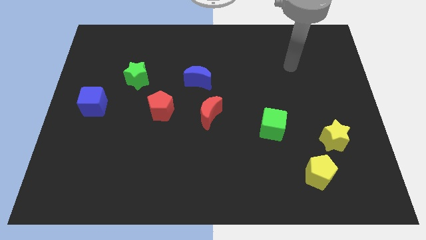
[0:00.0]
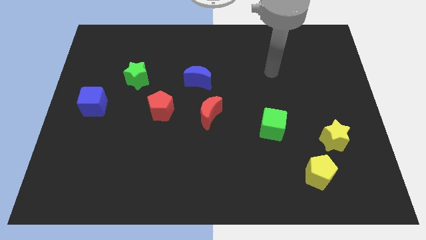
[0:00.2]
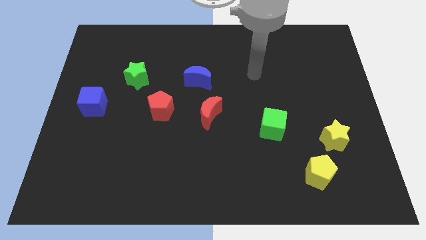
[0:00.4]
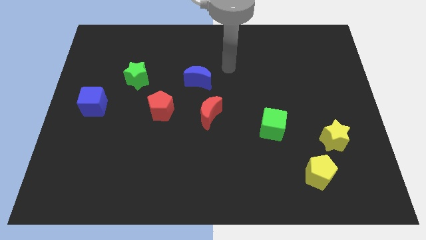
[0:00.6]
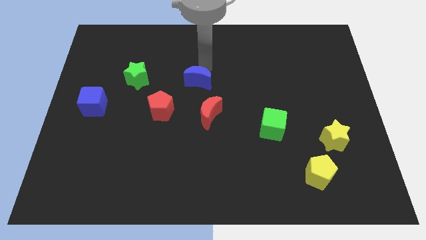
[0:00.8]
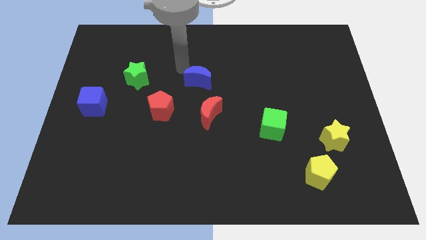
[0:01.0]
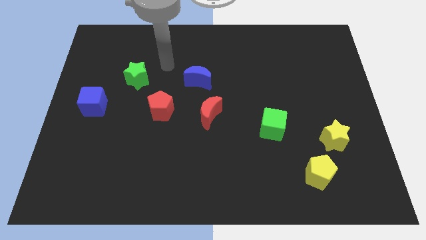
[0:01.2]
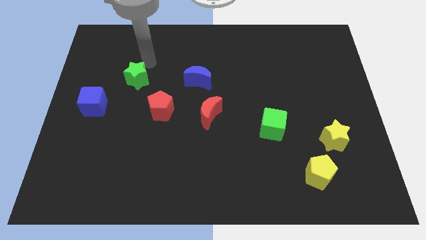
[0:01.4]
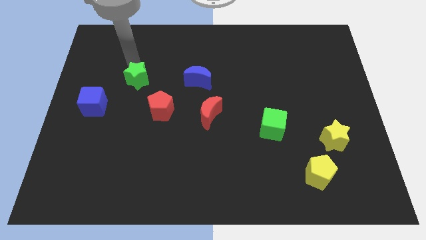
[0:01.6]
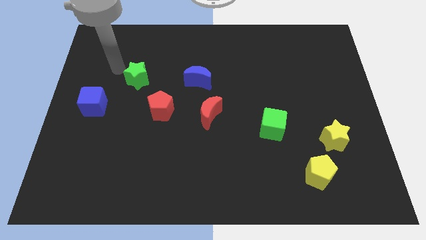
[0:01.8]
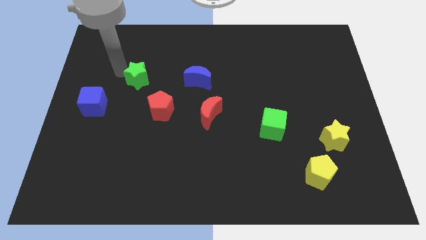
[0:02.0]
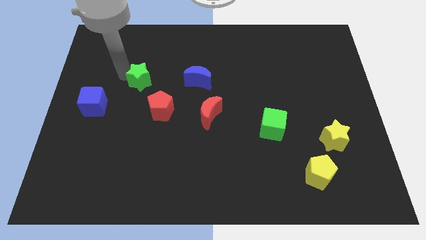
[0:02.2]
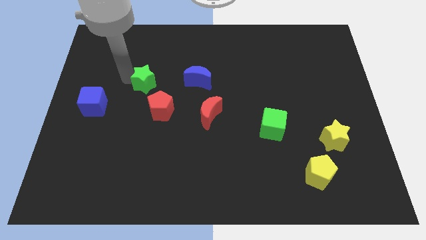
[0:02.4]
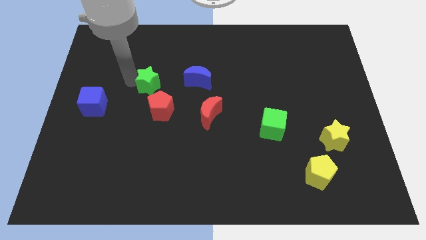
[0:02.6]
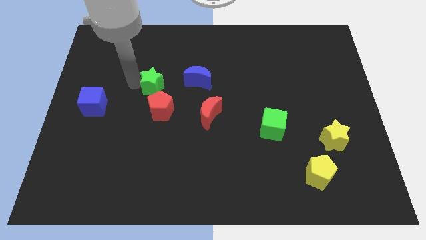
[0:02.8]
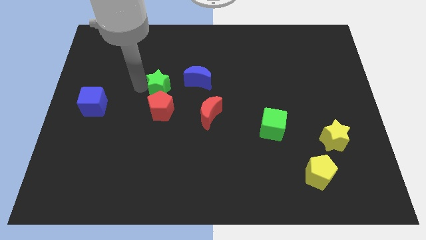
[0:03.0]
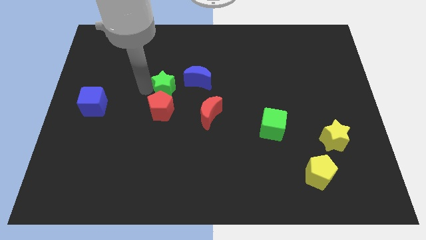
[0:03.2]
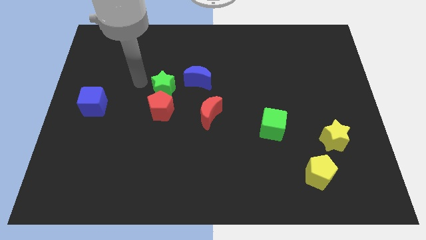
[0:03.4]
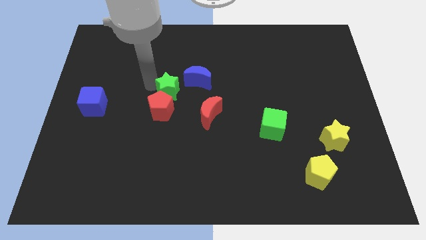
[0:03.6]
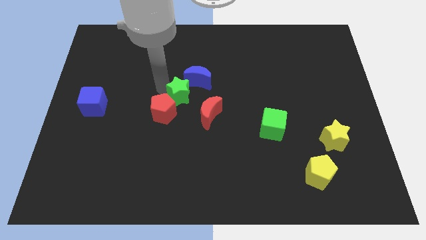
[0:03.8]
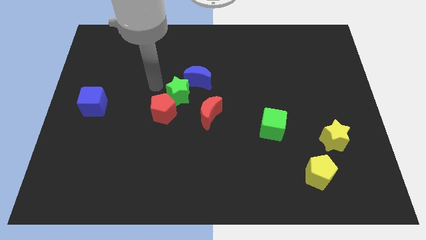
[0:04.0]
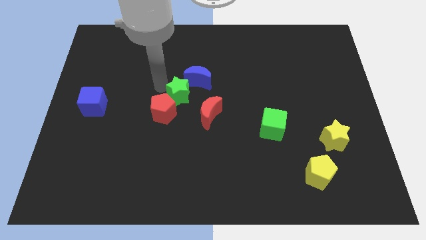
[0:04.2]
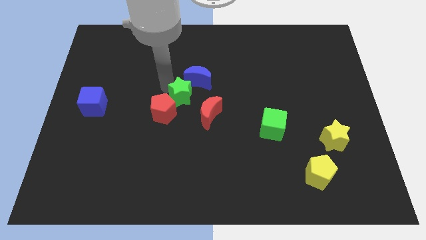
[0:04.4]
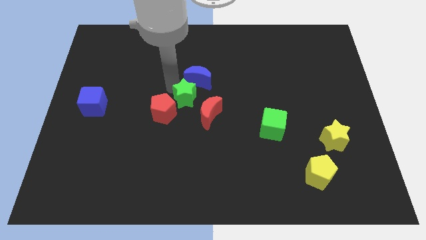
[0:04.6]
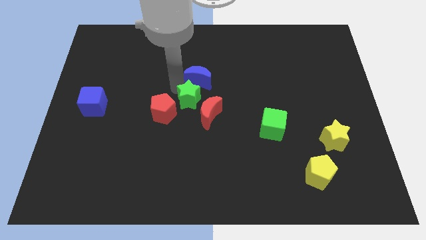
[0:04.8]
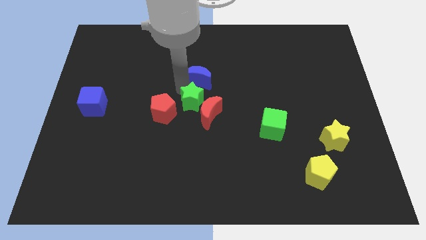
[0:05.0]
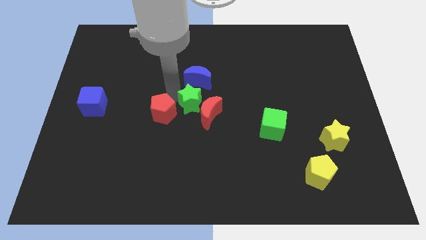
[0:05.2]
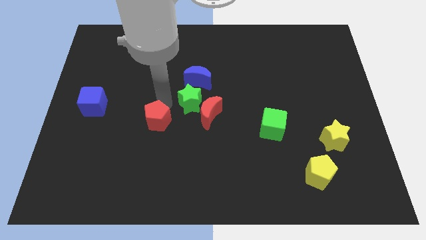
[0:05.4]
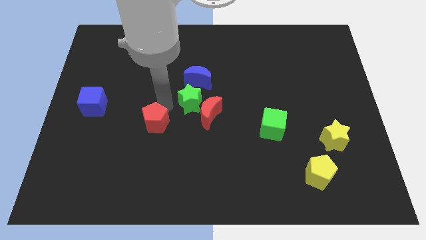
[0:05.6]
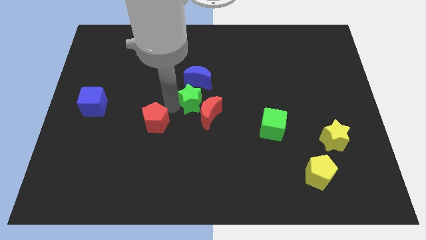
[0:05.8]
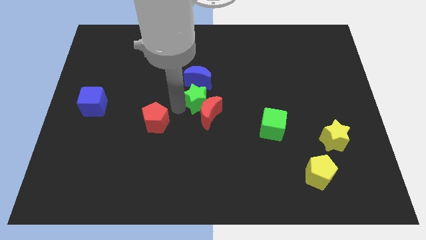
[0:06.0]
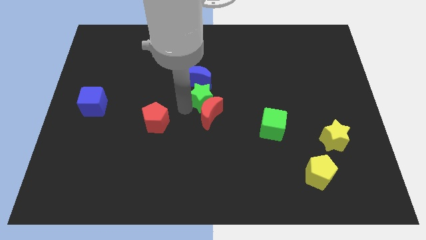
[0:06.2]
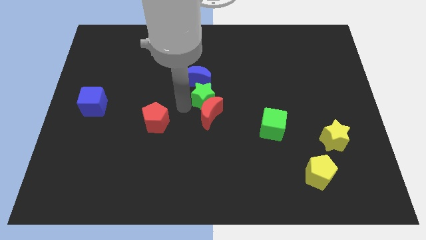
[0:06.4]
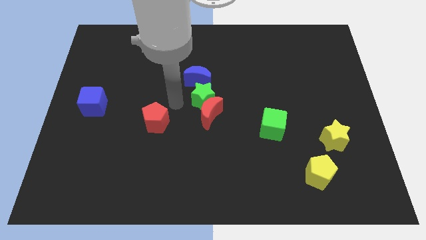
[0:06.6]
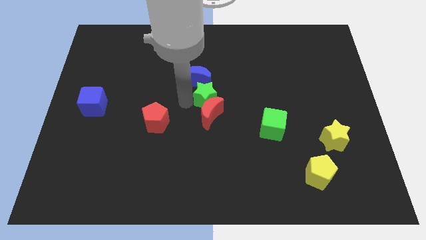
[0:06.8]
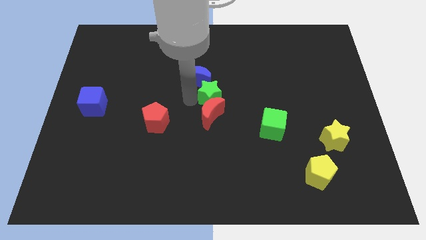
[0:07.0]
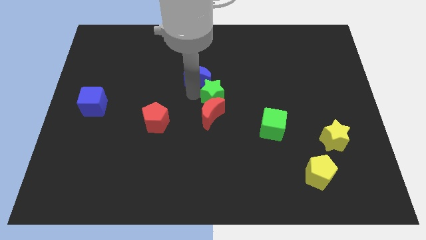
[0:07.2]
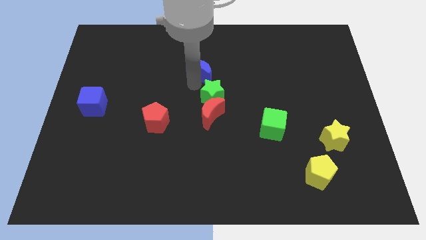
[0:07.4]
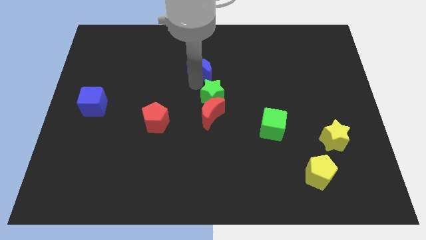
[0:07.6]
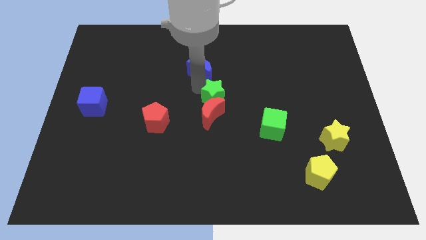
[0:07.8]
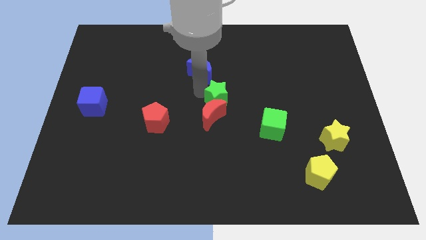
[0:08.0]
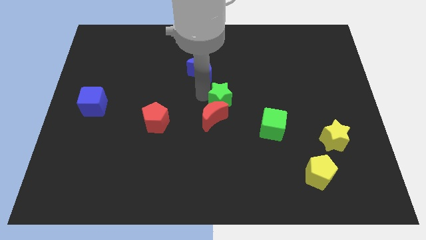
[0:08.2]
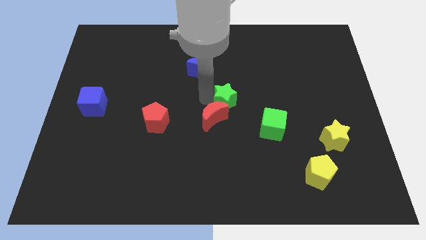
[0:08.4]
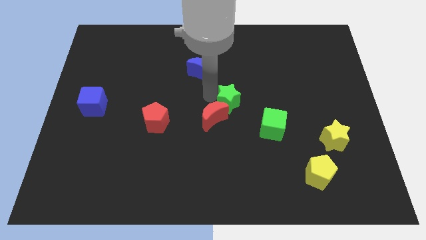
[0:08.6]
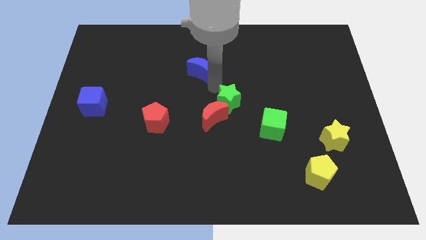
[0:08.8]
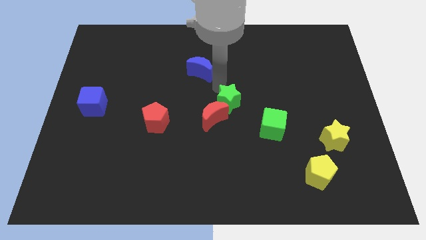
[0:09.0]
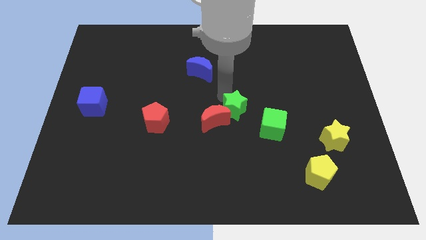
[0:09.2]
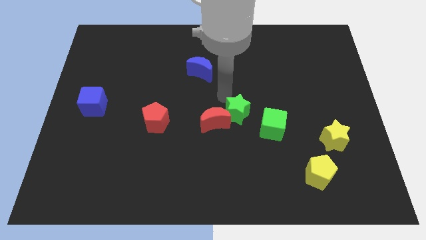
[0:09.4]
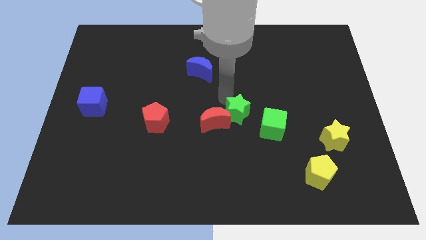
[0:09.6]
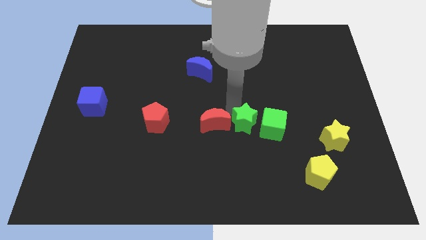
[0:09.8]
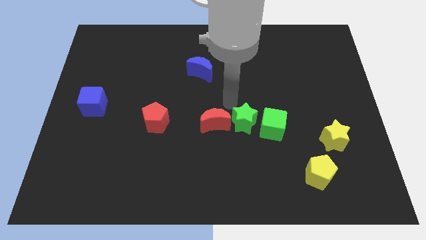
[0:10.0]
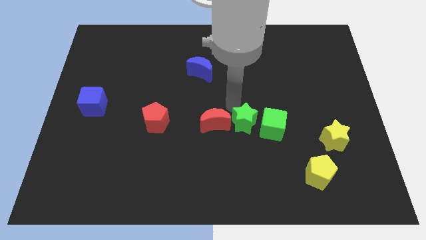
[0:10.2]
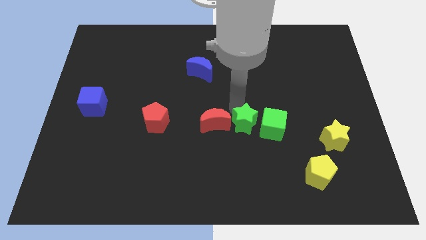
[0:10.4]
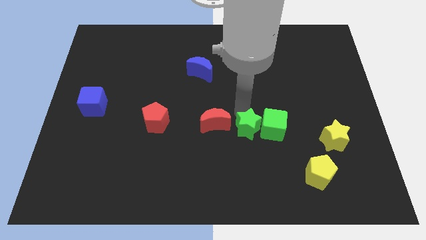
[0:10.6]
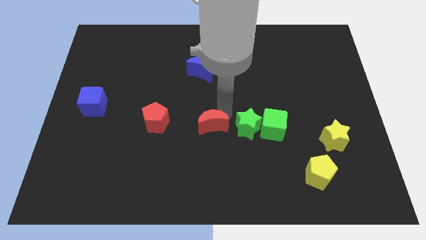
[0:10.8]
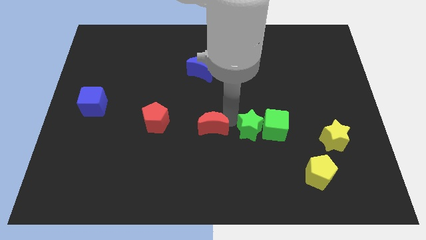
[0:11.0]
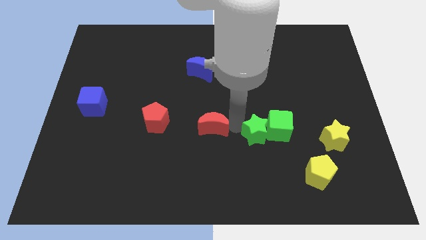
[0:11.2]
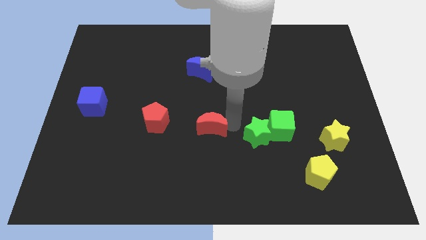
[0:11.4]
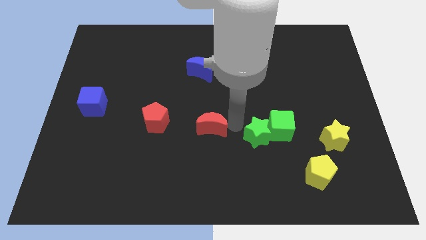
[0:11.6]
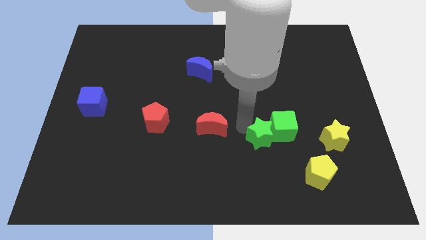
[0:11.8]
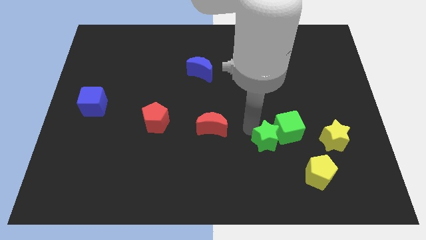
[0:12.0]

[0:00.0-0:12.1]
move the green star diagonally up and to the left of the yellow pentagon

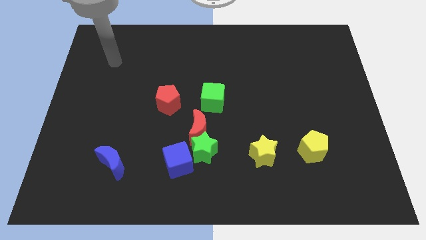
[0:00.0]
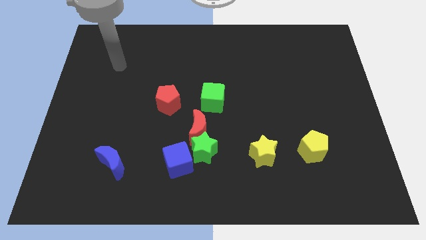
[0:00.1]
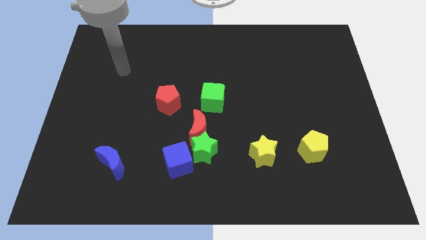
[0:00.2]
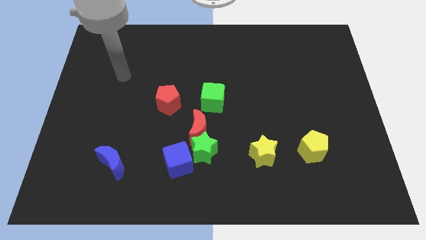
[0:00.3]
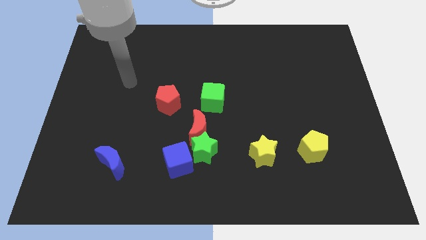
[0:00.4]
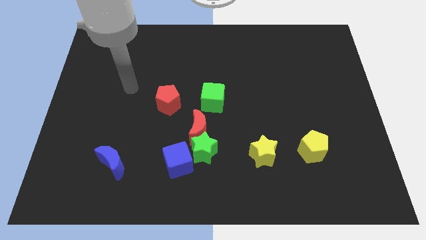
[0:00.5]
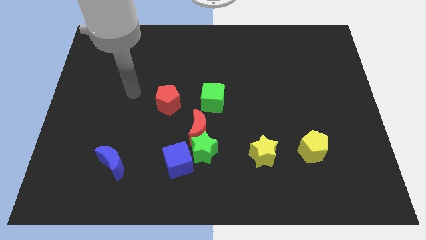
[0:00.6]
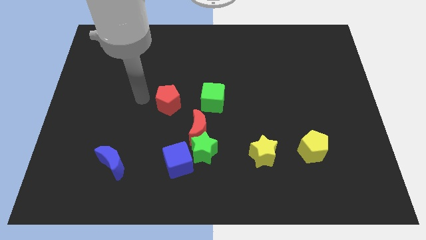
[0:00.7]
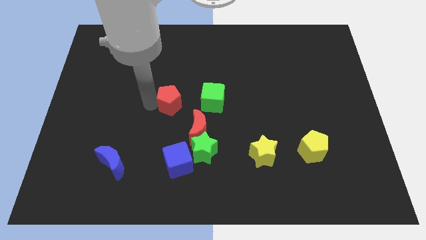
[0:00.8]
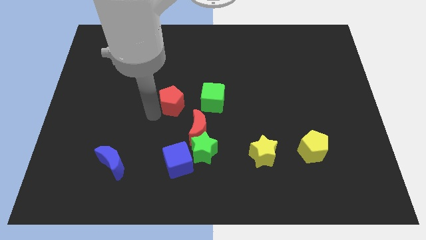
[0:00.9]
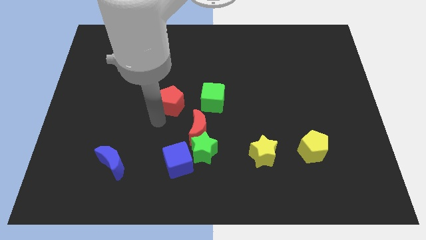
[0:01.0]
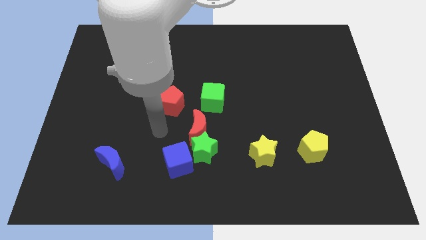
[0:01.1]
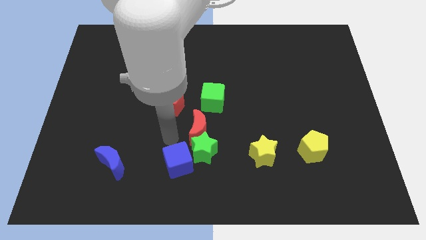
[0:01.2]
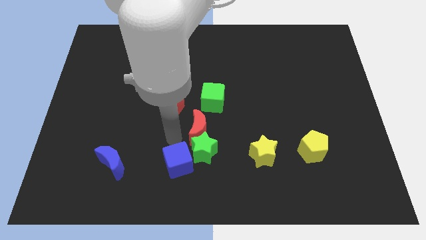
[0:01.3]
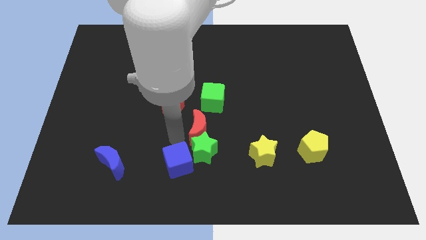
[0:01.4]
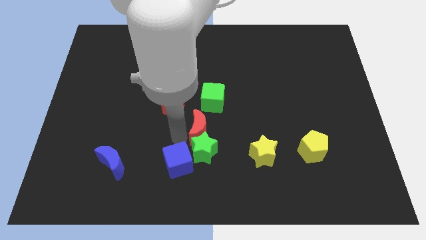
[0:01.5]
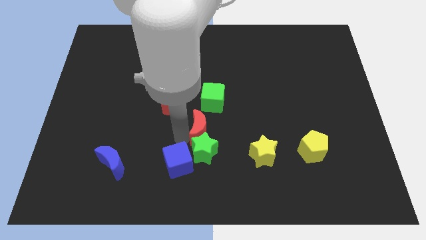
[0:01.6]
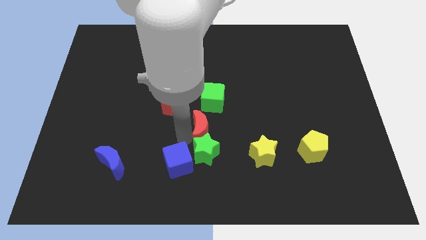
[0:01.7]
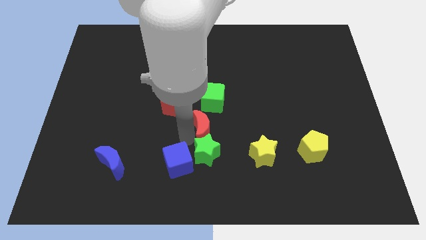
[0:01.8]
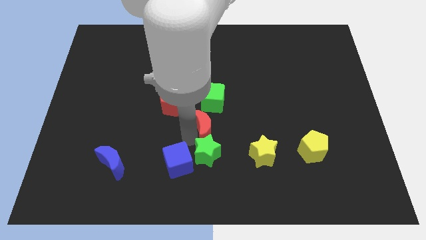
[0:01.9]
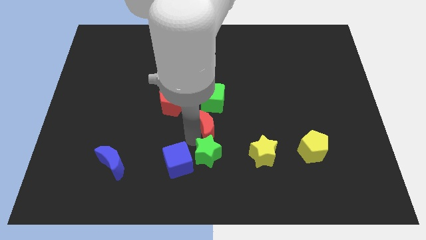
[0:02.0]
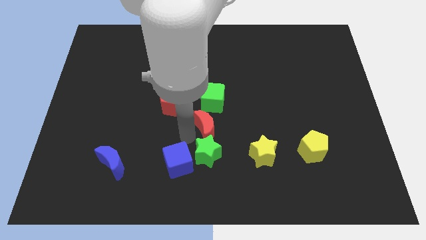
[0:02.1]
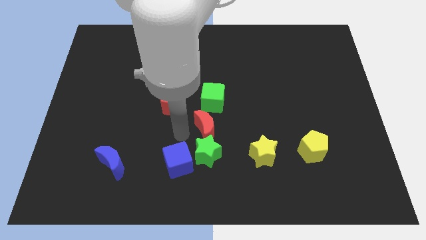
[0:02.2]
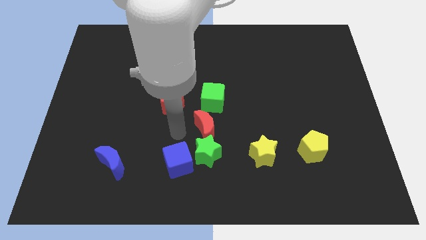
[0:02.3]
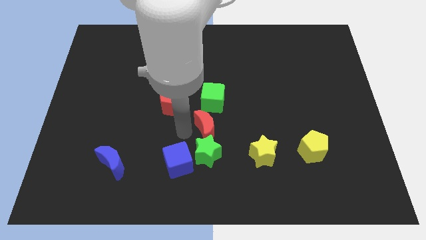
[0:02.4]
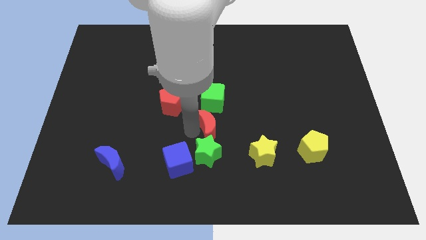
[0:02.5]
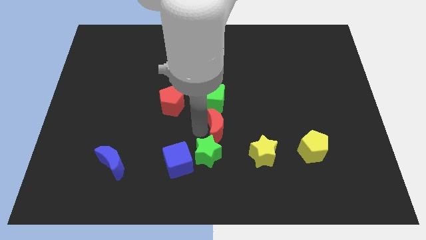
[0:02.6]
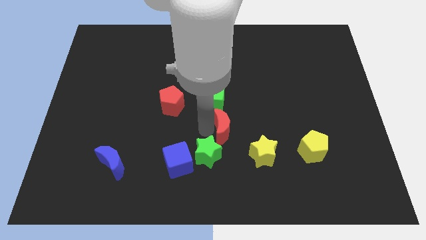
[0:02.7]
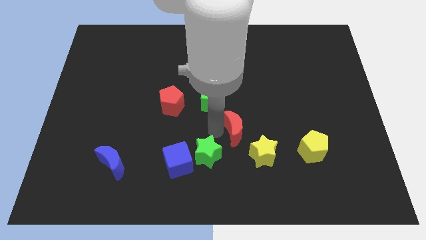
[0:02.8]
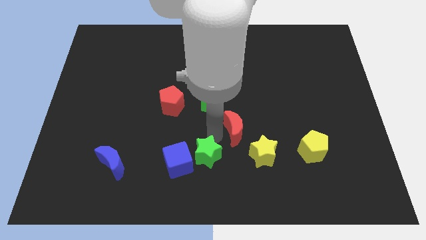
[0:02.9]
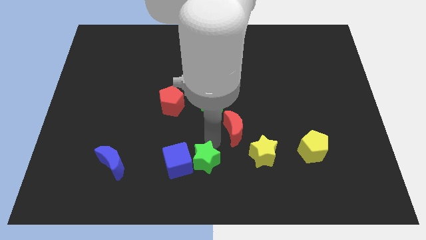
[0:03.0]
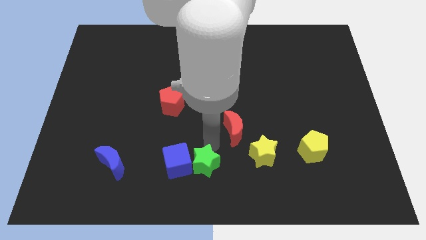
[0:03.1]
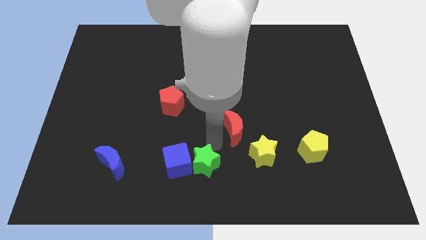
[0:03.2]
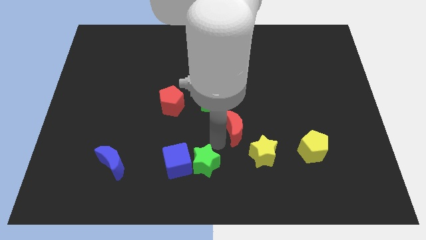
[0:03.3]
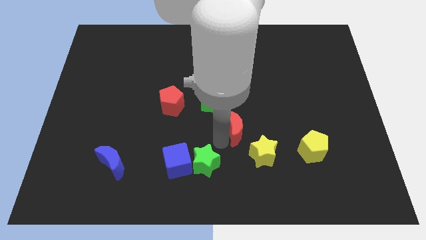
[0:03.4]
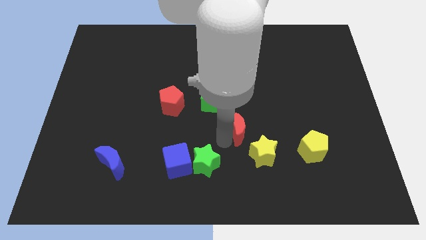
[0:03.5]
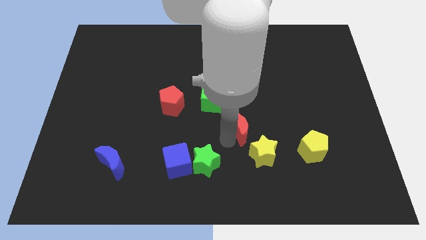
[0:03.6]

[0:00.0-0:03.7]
push the red moon above the yellow star
